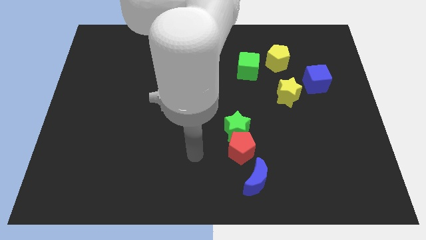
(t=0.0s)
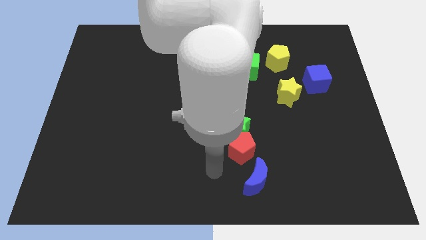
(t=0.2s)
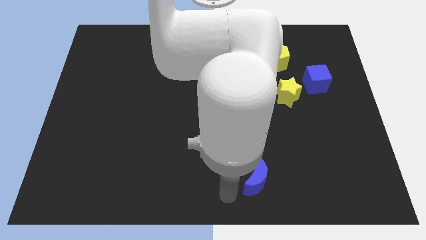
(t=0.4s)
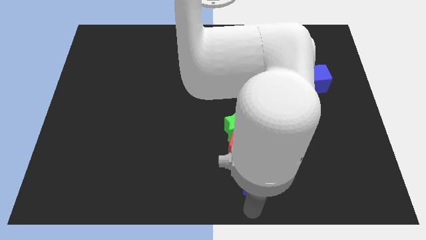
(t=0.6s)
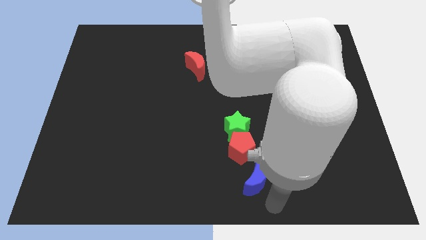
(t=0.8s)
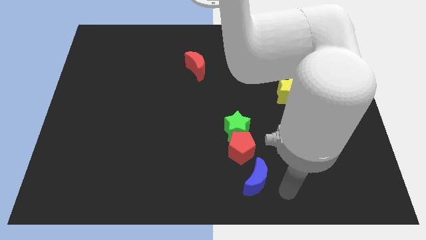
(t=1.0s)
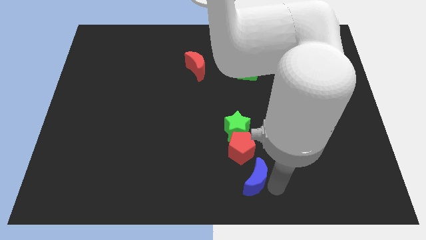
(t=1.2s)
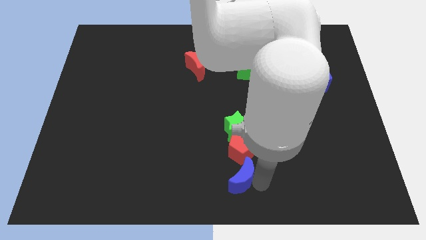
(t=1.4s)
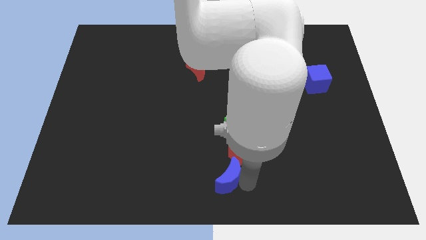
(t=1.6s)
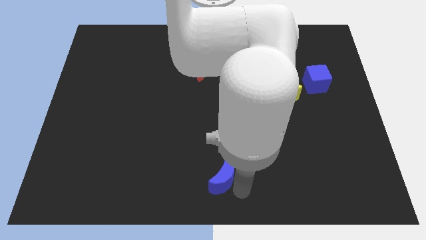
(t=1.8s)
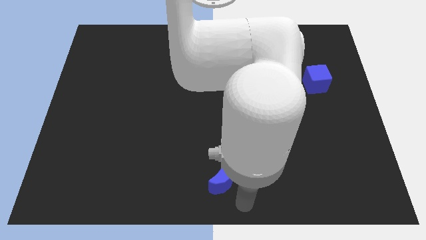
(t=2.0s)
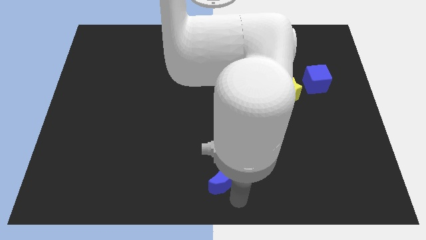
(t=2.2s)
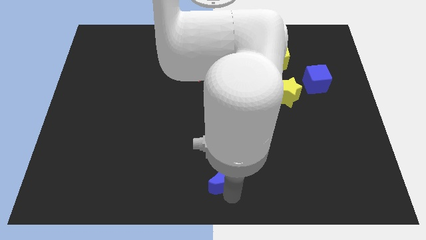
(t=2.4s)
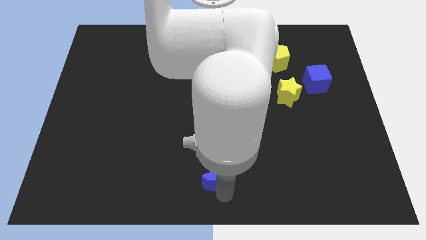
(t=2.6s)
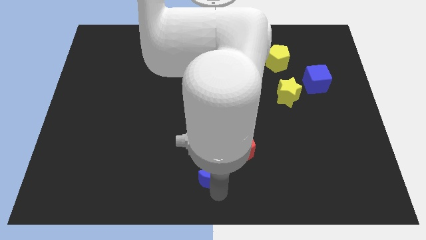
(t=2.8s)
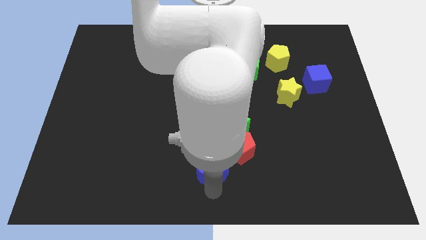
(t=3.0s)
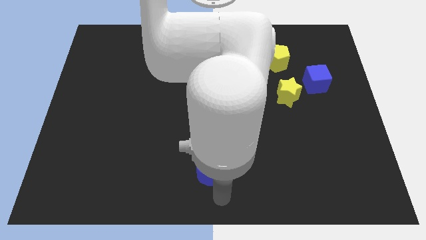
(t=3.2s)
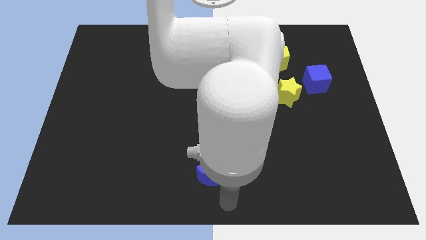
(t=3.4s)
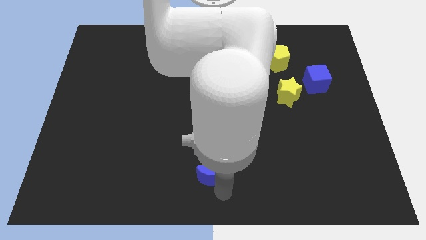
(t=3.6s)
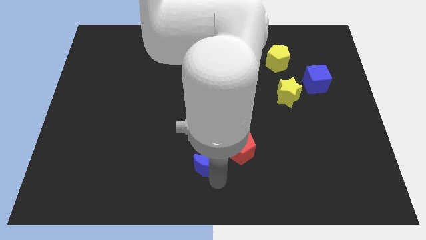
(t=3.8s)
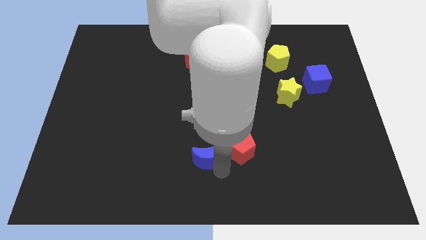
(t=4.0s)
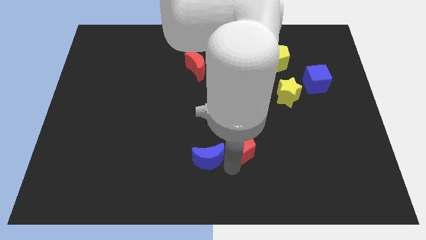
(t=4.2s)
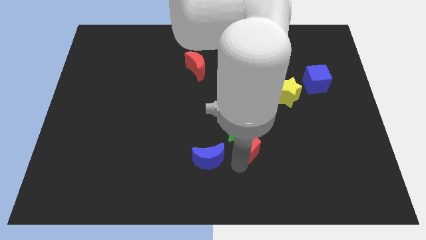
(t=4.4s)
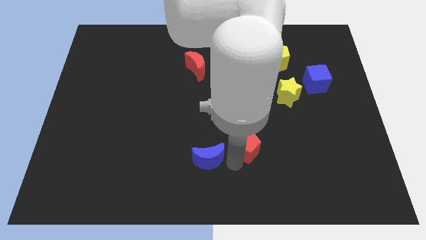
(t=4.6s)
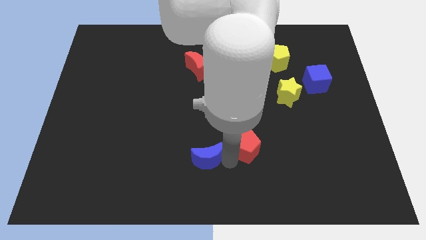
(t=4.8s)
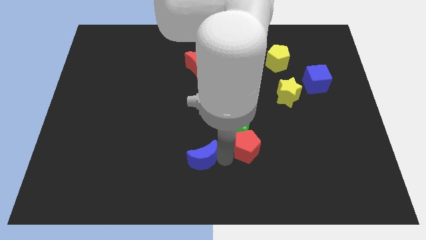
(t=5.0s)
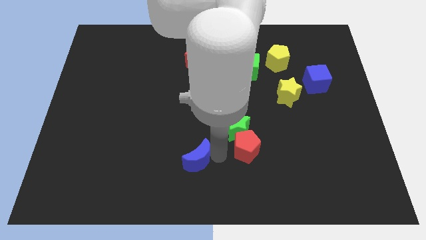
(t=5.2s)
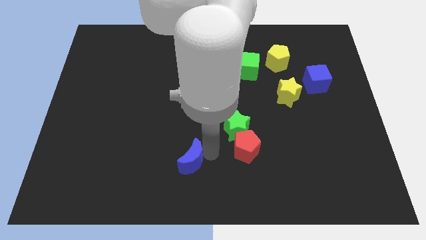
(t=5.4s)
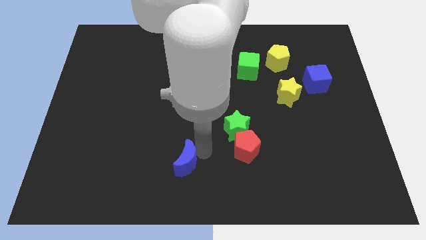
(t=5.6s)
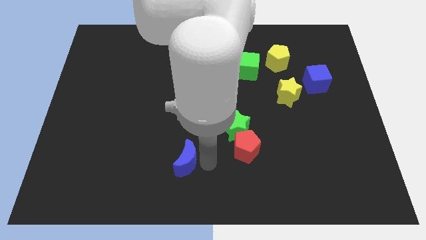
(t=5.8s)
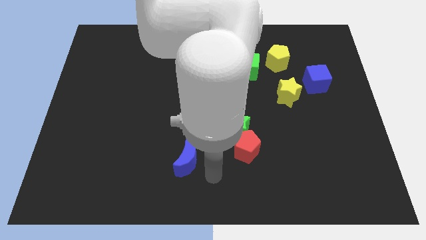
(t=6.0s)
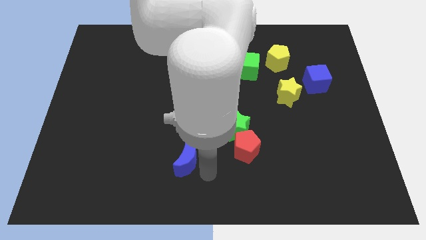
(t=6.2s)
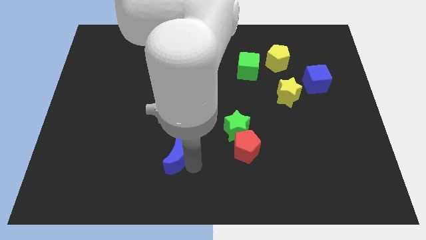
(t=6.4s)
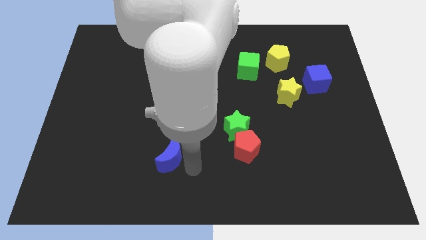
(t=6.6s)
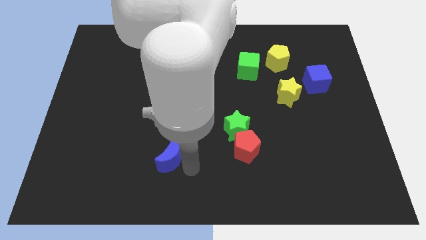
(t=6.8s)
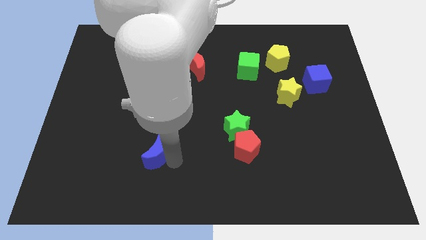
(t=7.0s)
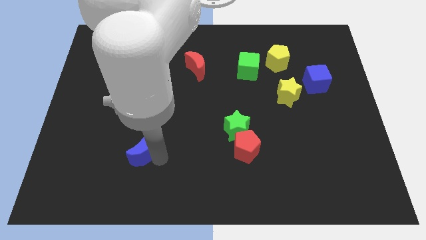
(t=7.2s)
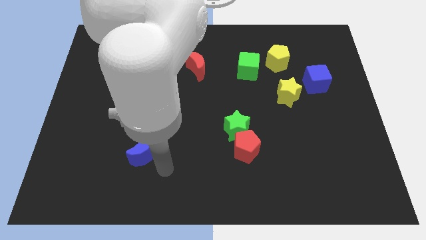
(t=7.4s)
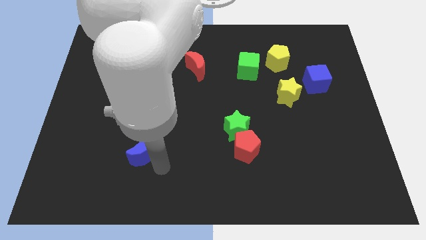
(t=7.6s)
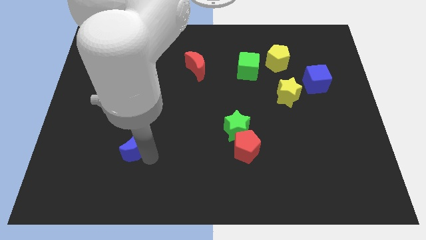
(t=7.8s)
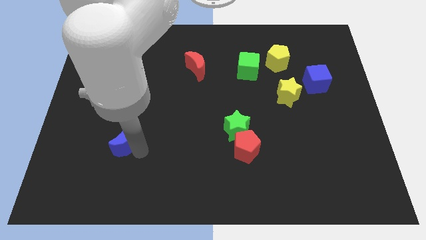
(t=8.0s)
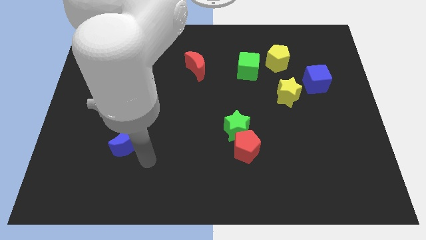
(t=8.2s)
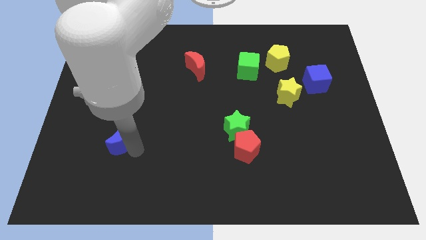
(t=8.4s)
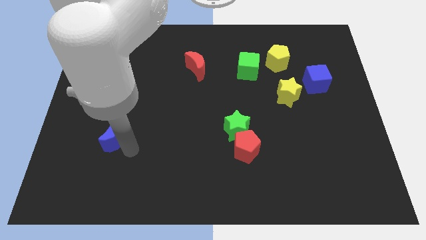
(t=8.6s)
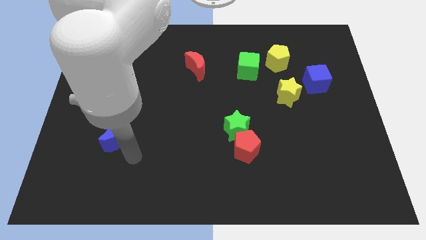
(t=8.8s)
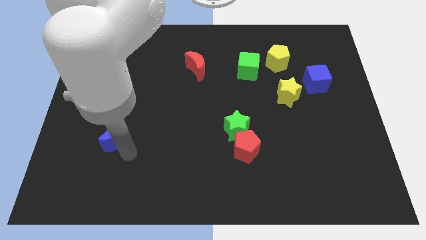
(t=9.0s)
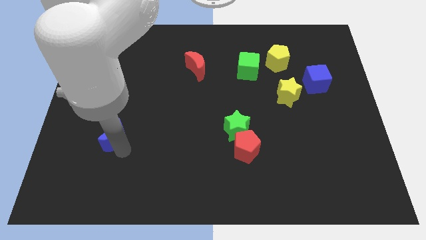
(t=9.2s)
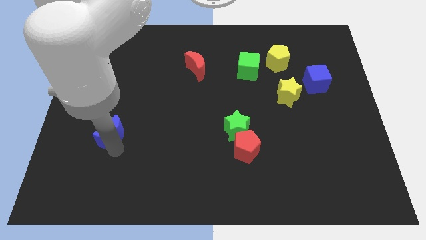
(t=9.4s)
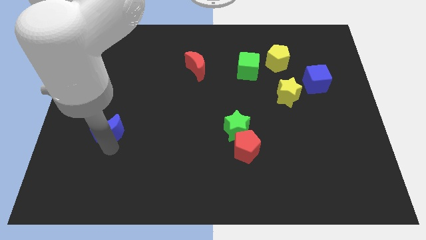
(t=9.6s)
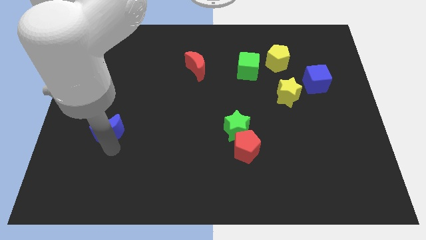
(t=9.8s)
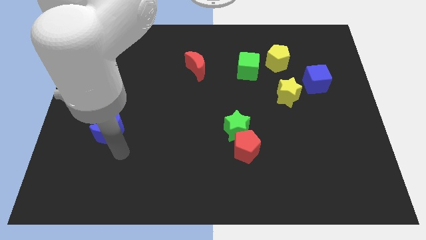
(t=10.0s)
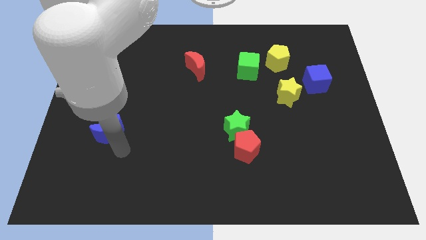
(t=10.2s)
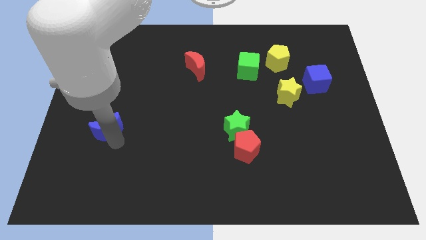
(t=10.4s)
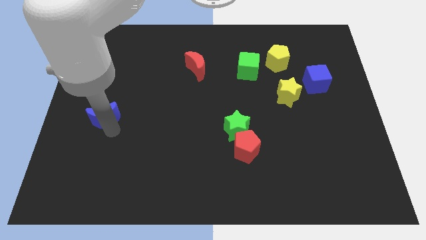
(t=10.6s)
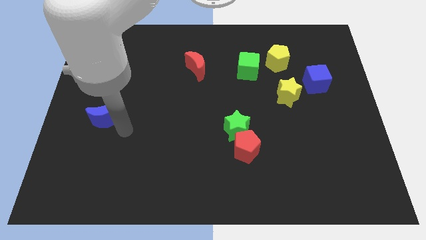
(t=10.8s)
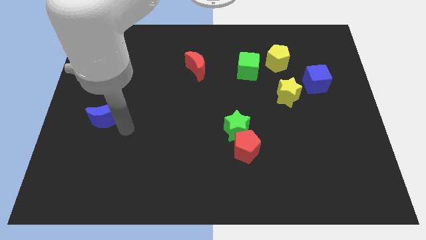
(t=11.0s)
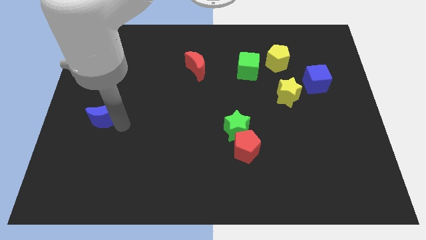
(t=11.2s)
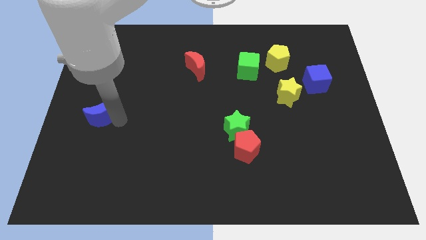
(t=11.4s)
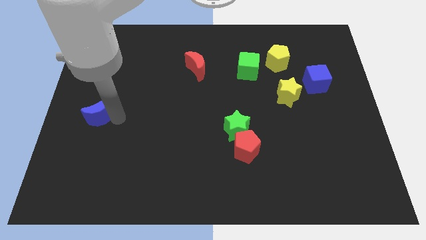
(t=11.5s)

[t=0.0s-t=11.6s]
move the blue moon to the left side
